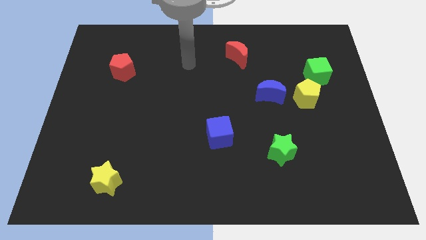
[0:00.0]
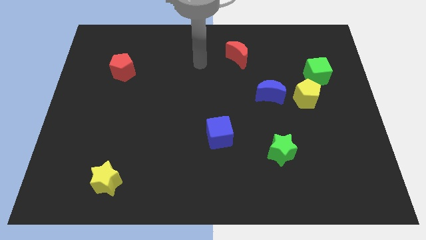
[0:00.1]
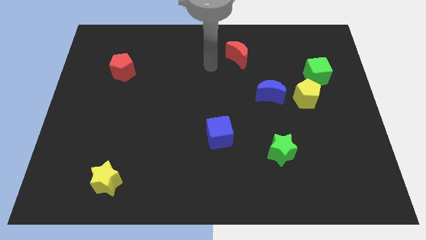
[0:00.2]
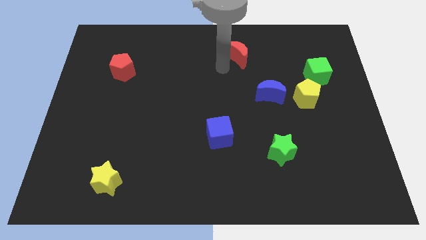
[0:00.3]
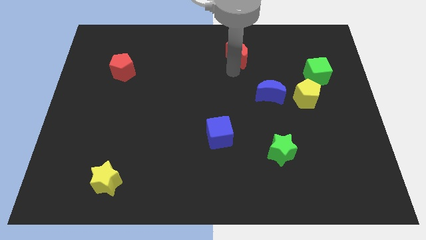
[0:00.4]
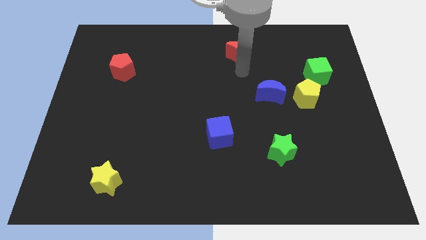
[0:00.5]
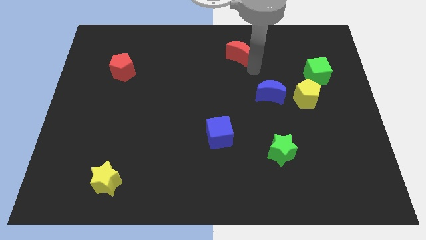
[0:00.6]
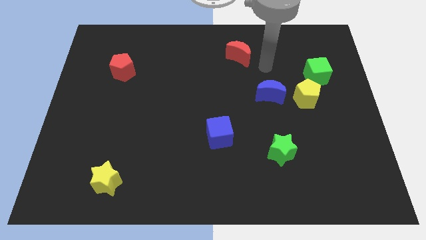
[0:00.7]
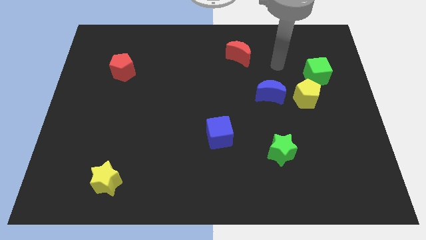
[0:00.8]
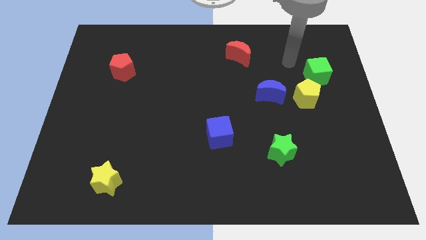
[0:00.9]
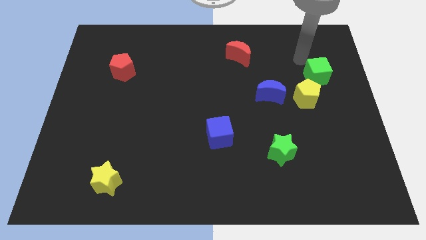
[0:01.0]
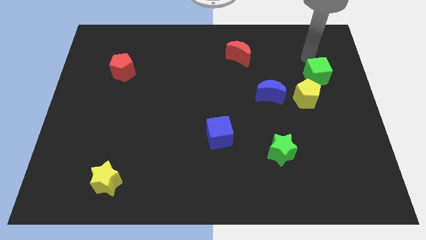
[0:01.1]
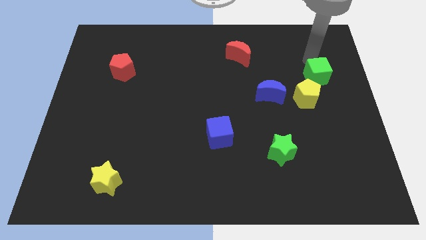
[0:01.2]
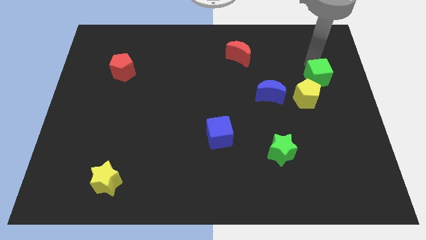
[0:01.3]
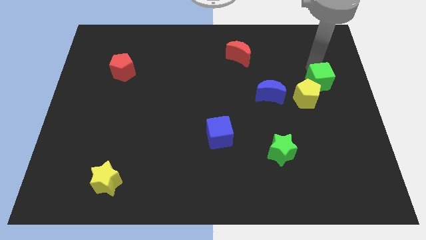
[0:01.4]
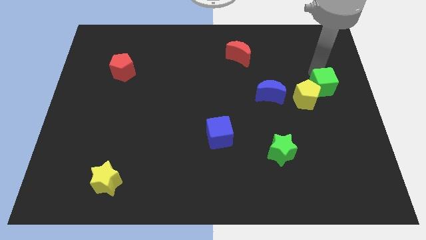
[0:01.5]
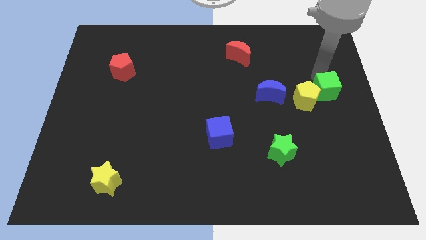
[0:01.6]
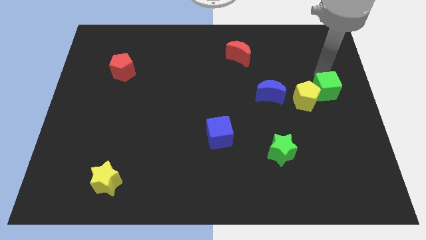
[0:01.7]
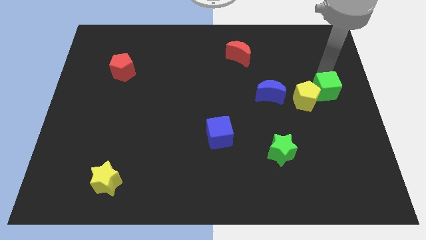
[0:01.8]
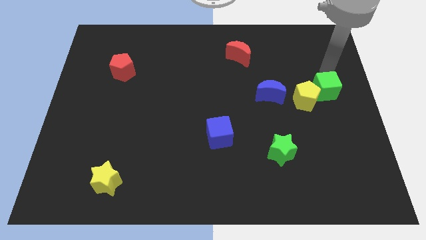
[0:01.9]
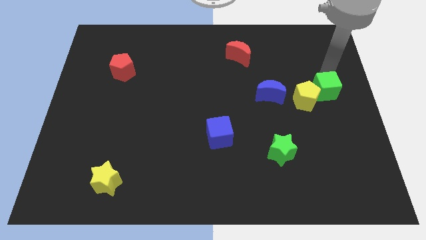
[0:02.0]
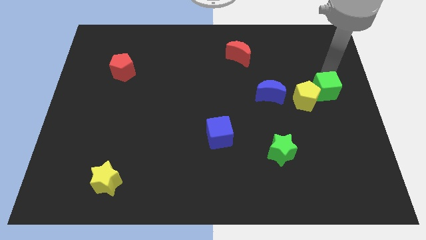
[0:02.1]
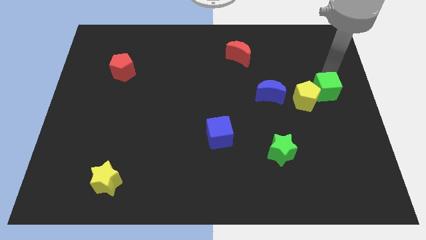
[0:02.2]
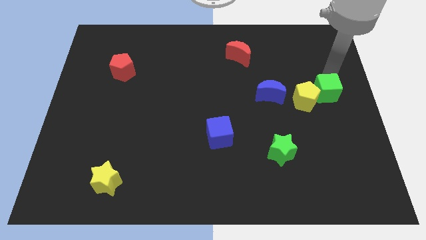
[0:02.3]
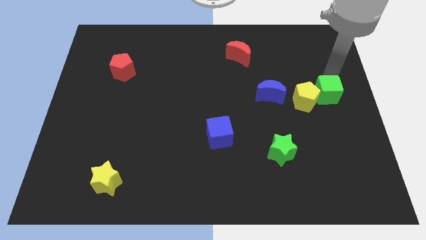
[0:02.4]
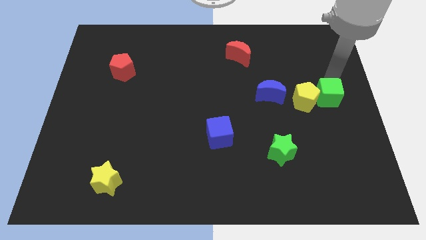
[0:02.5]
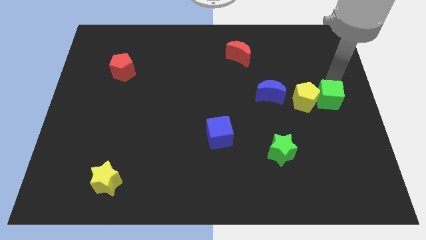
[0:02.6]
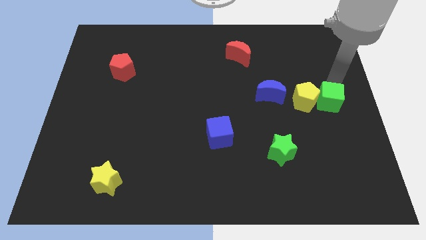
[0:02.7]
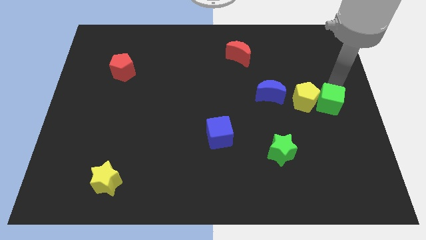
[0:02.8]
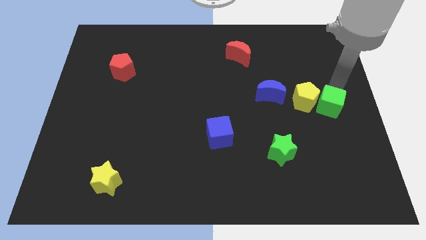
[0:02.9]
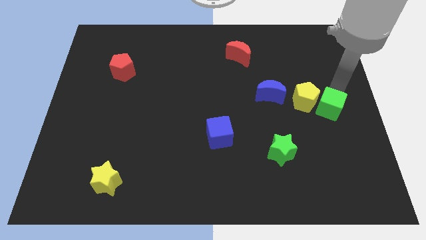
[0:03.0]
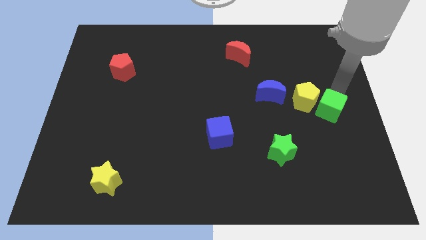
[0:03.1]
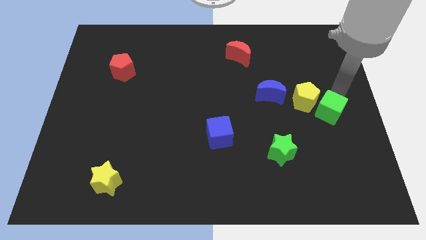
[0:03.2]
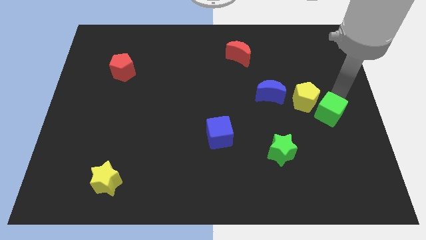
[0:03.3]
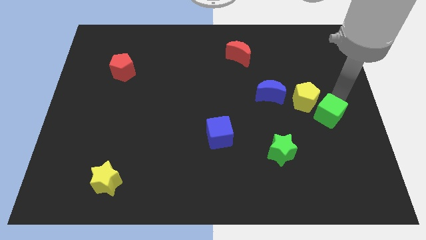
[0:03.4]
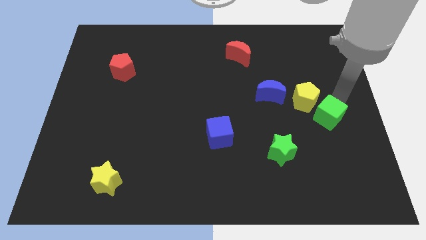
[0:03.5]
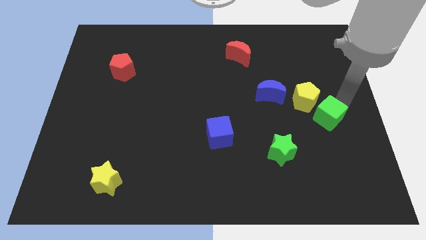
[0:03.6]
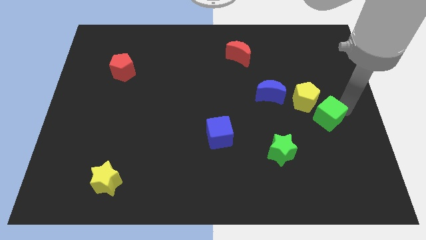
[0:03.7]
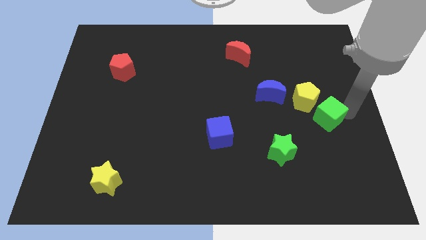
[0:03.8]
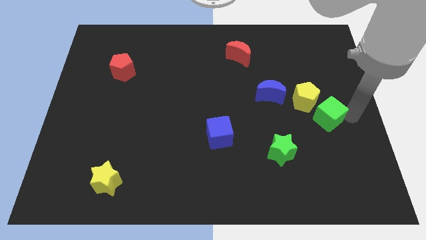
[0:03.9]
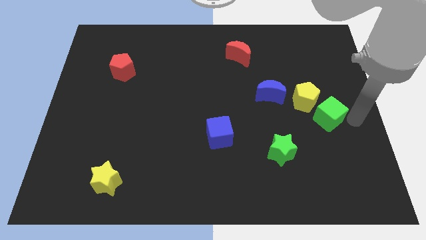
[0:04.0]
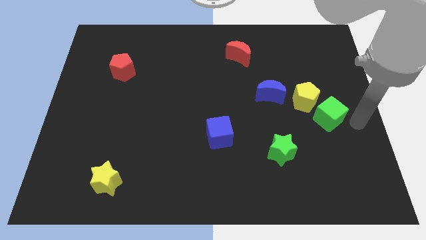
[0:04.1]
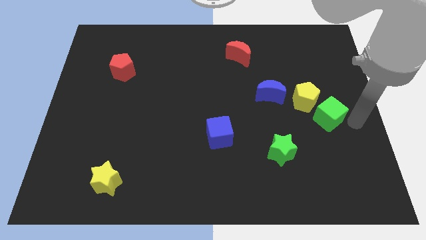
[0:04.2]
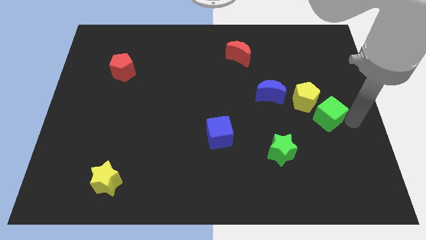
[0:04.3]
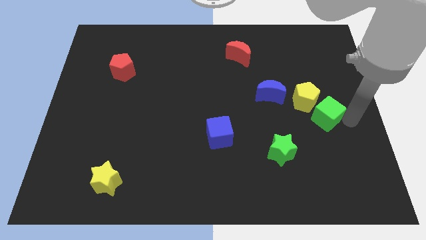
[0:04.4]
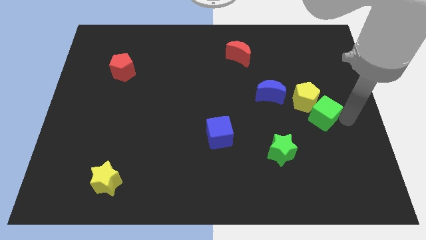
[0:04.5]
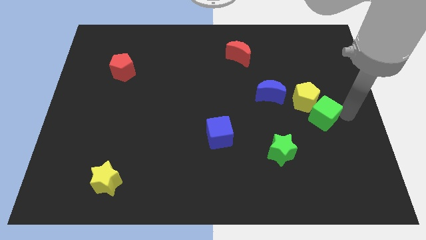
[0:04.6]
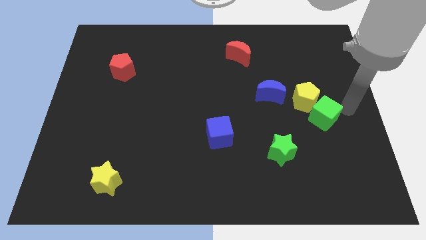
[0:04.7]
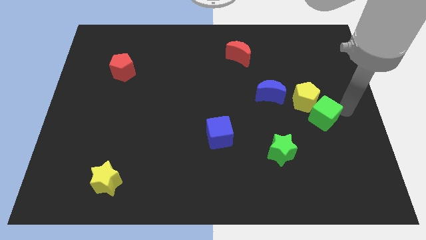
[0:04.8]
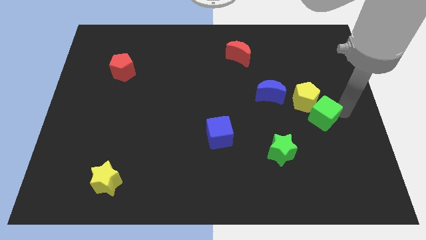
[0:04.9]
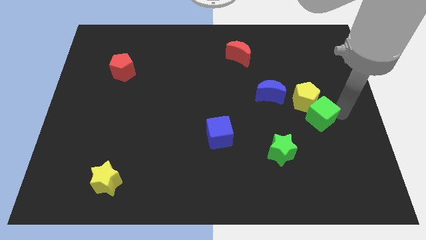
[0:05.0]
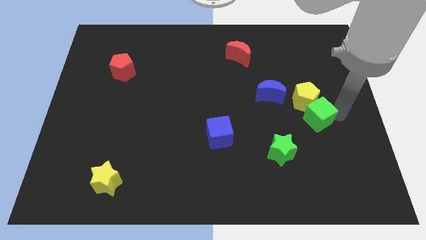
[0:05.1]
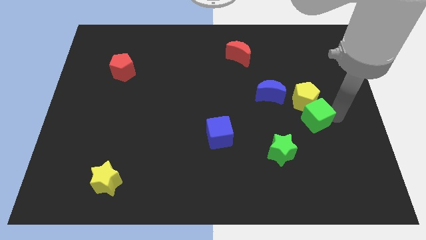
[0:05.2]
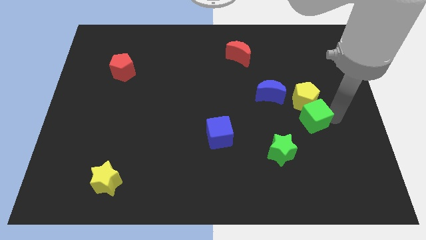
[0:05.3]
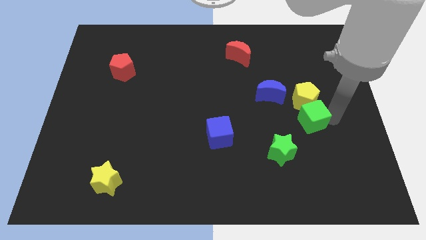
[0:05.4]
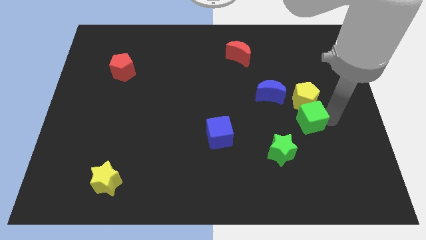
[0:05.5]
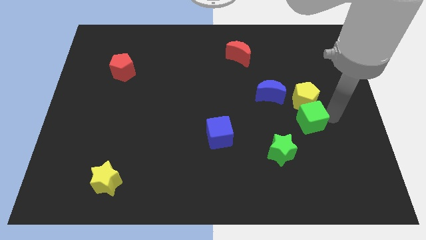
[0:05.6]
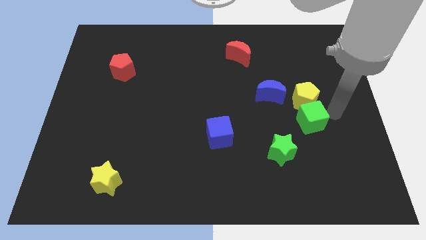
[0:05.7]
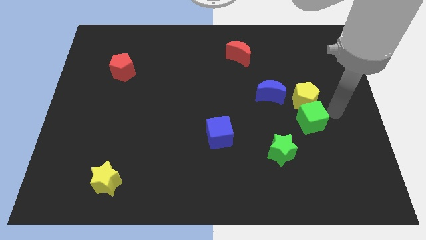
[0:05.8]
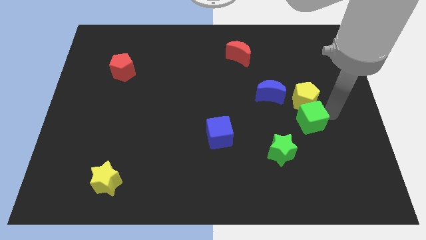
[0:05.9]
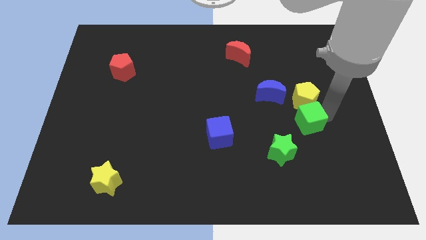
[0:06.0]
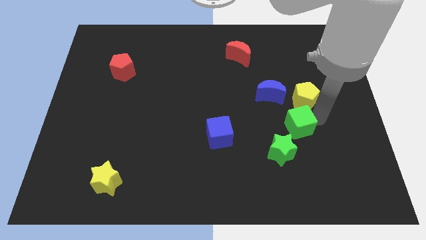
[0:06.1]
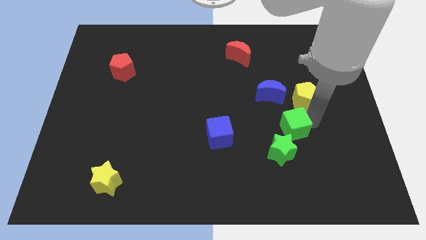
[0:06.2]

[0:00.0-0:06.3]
slide the green cube to the bottom of the blue moon

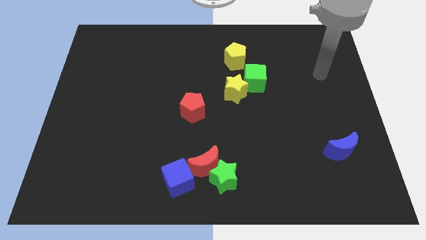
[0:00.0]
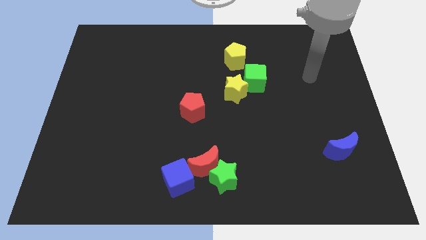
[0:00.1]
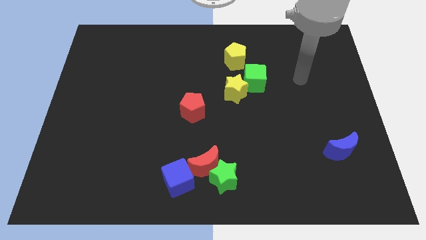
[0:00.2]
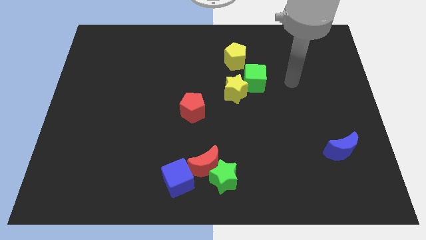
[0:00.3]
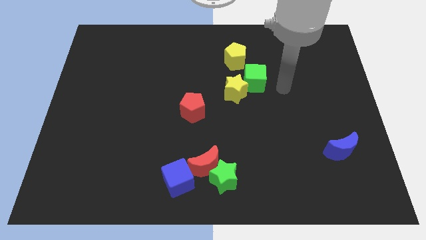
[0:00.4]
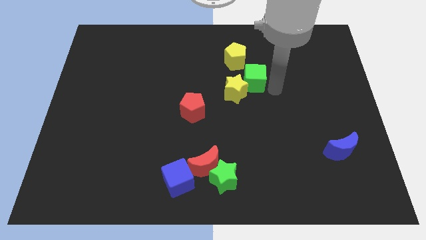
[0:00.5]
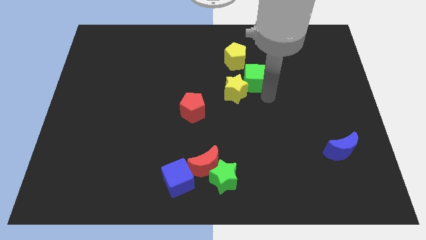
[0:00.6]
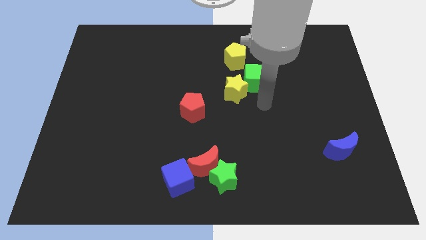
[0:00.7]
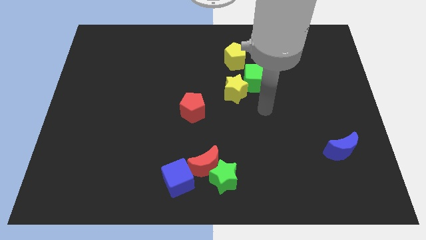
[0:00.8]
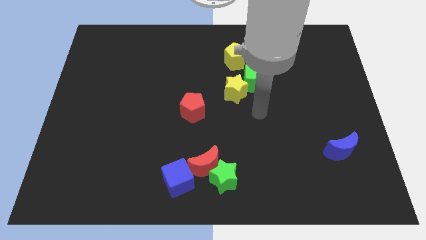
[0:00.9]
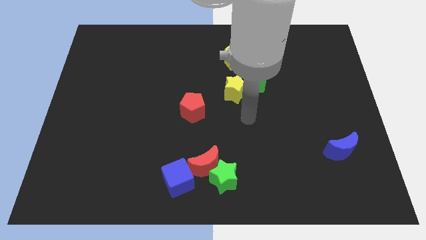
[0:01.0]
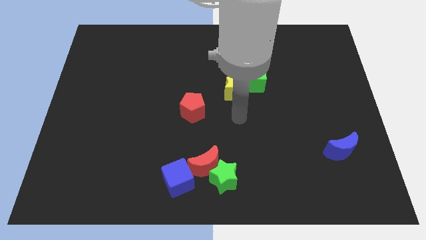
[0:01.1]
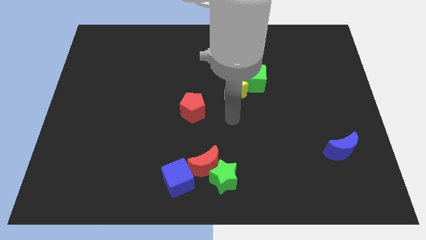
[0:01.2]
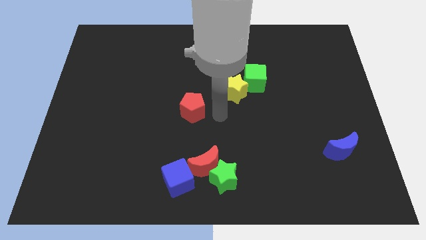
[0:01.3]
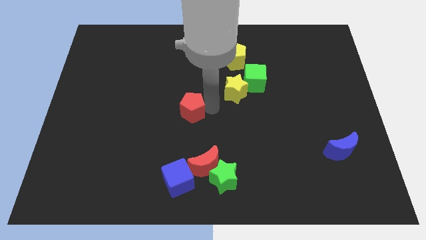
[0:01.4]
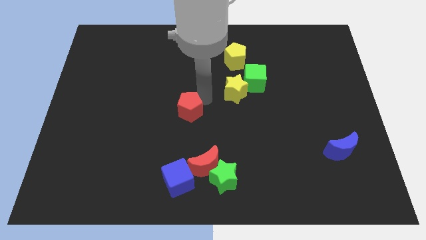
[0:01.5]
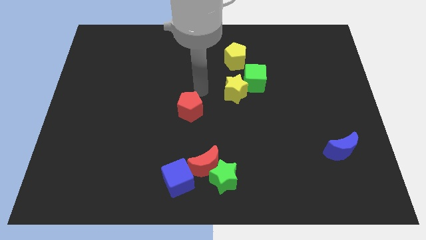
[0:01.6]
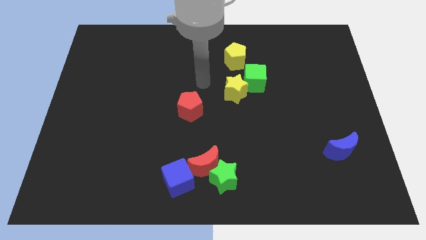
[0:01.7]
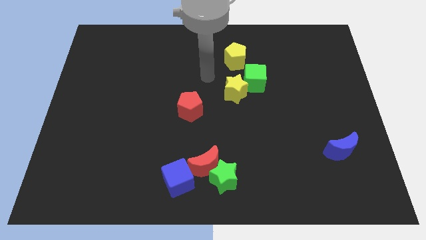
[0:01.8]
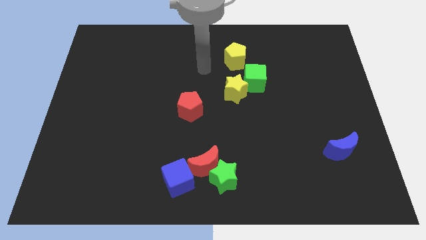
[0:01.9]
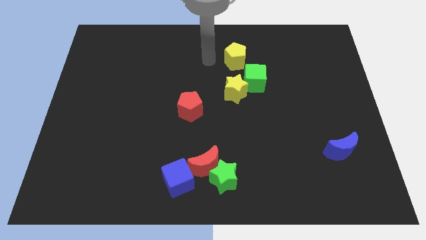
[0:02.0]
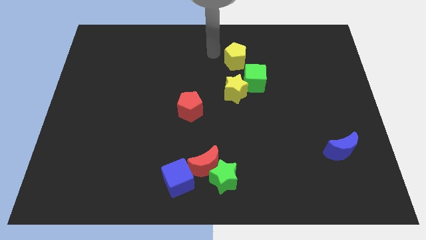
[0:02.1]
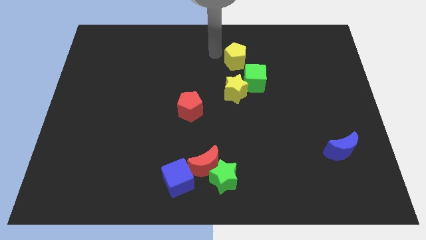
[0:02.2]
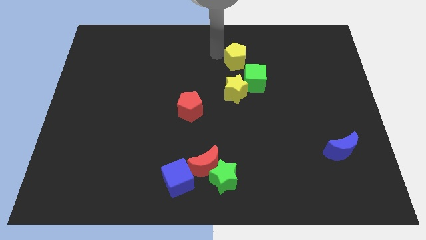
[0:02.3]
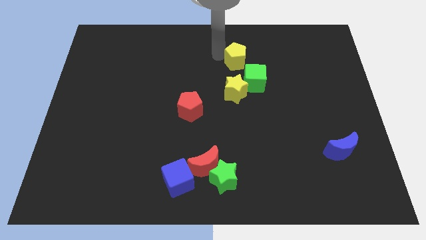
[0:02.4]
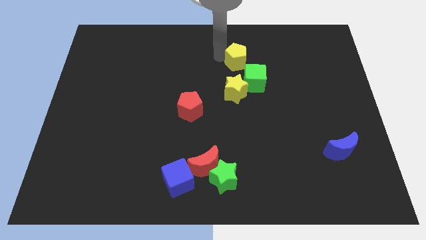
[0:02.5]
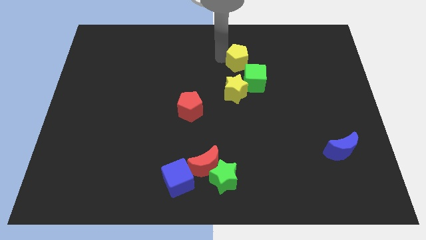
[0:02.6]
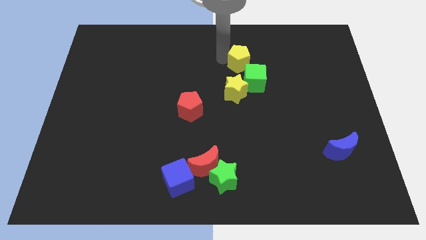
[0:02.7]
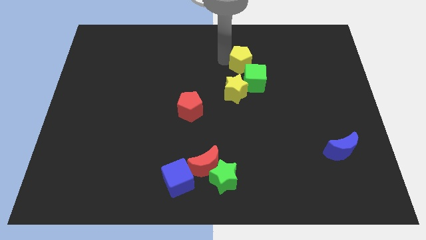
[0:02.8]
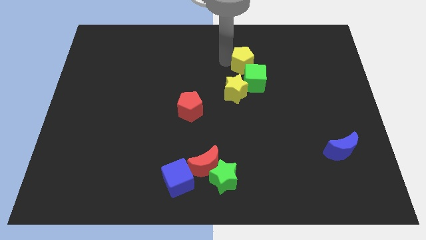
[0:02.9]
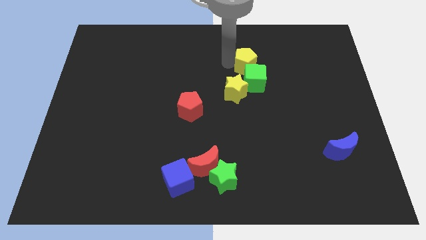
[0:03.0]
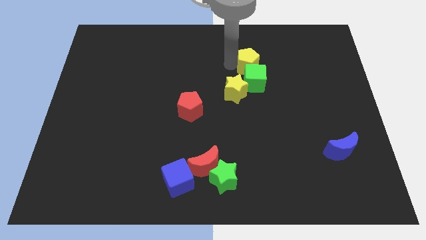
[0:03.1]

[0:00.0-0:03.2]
move the yellow pentagon to the top right of the green cube
